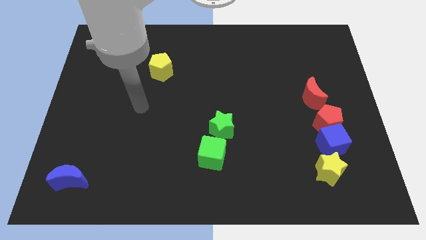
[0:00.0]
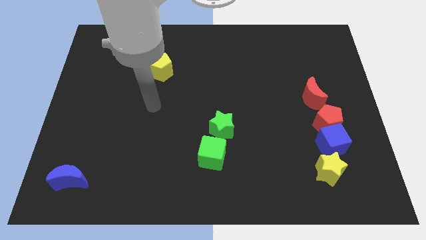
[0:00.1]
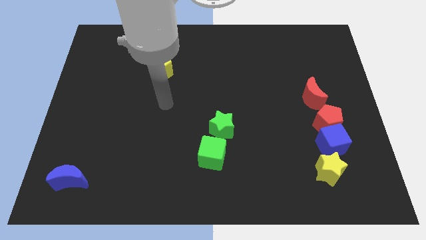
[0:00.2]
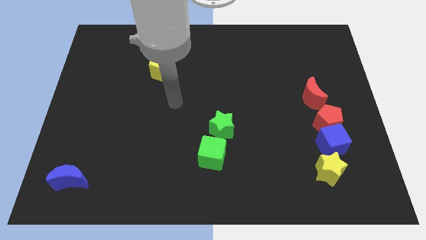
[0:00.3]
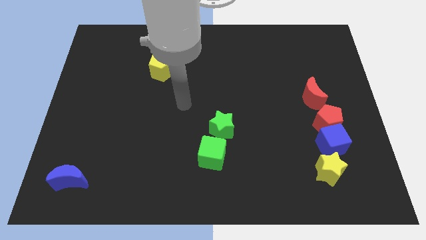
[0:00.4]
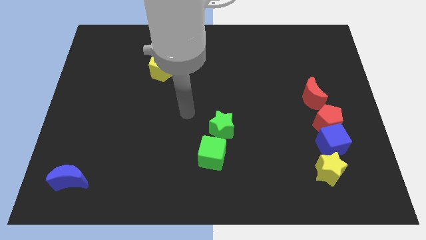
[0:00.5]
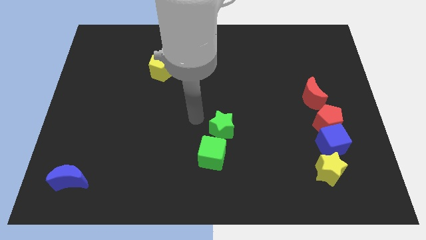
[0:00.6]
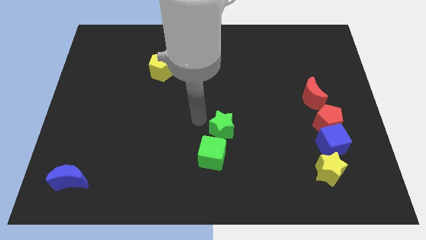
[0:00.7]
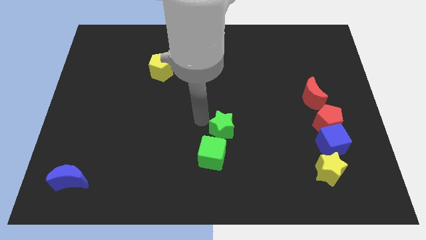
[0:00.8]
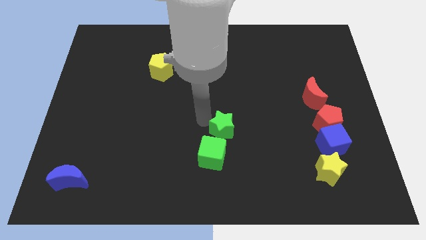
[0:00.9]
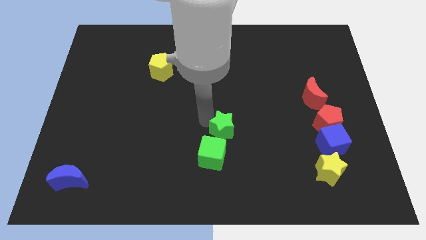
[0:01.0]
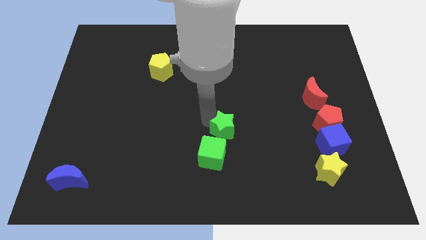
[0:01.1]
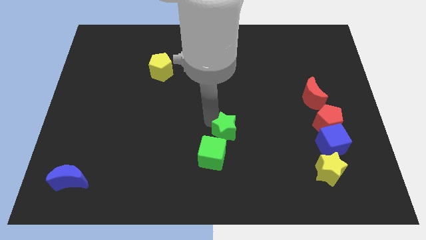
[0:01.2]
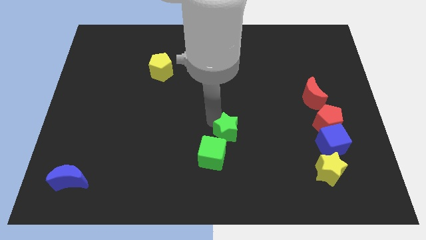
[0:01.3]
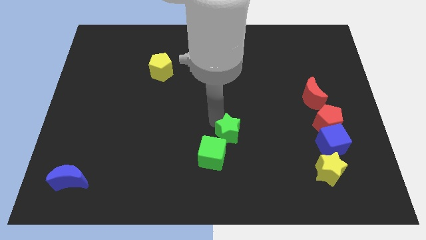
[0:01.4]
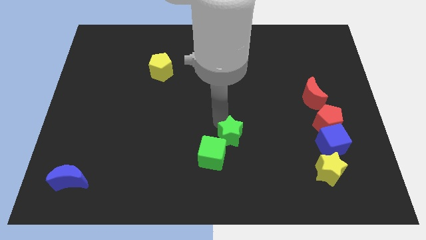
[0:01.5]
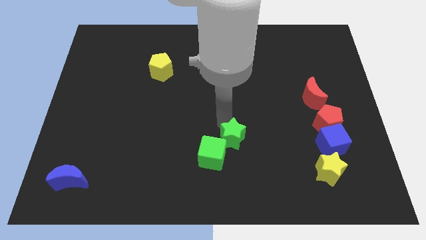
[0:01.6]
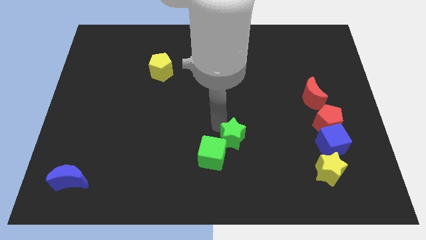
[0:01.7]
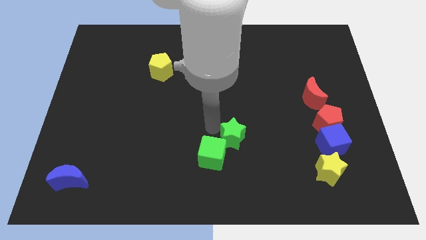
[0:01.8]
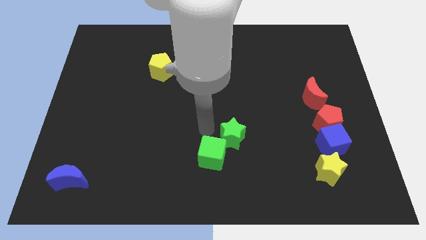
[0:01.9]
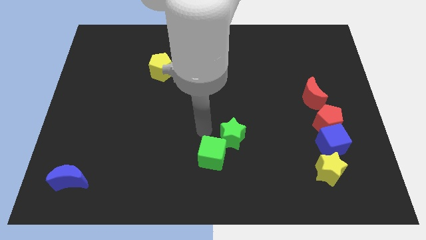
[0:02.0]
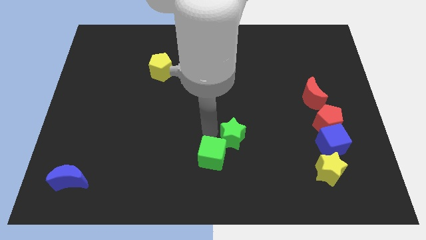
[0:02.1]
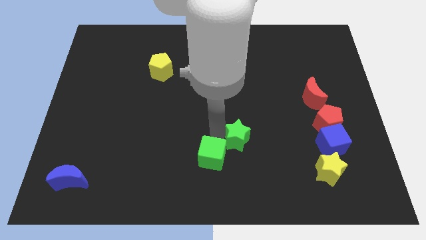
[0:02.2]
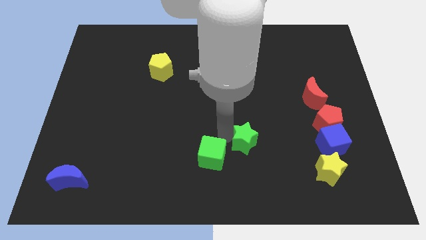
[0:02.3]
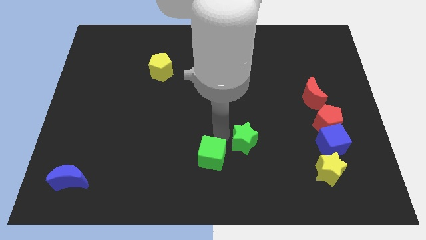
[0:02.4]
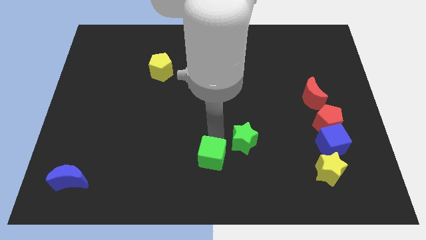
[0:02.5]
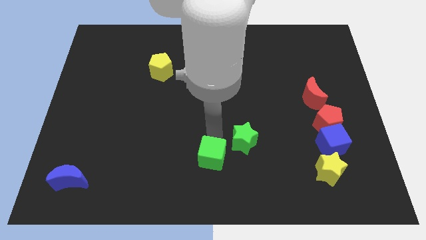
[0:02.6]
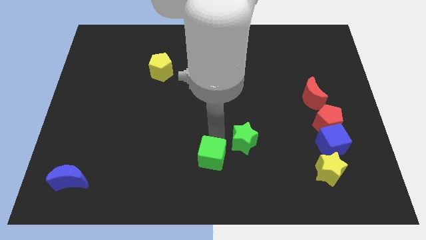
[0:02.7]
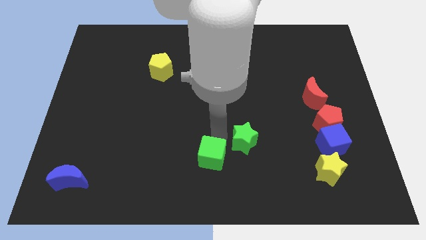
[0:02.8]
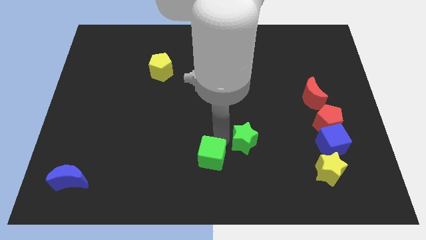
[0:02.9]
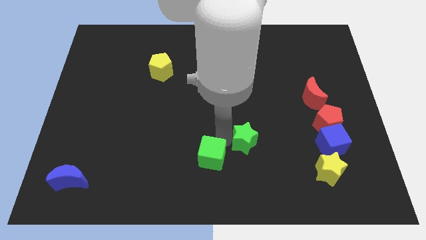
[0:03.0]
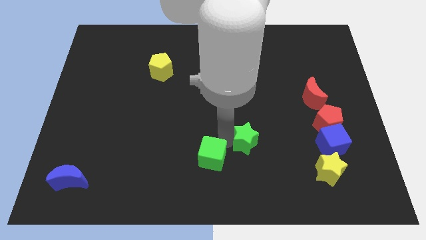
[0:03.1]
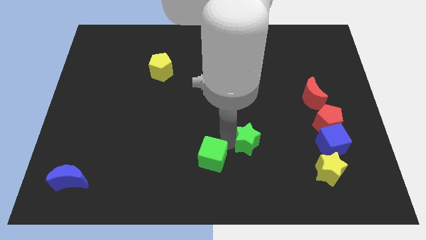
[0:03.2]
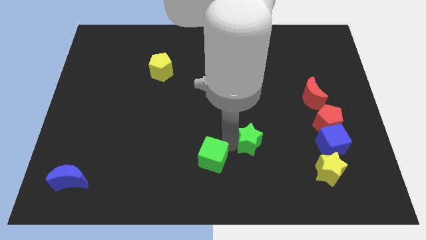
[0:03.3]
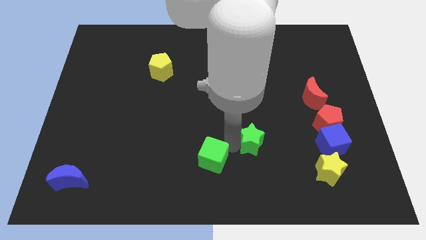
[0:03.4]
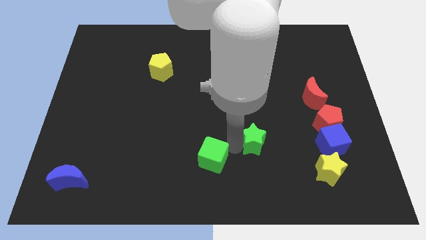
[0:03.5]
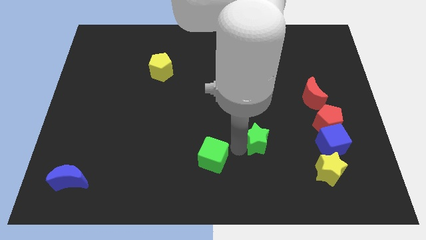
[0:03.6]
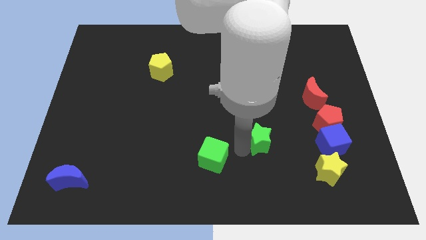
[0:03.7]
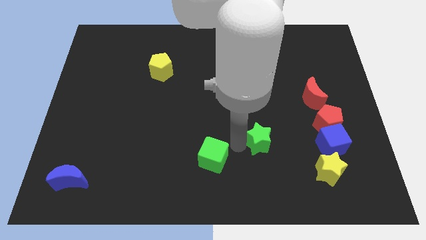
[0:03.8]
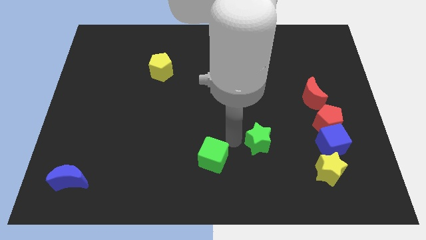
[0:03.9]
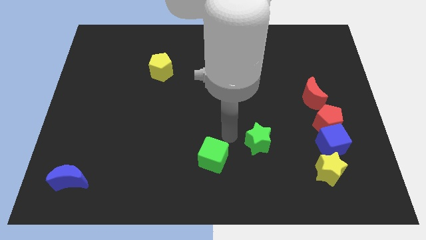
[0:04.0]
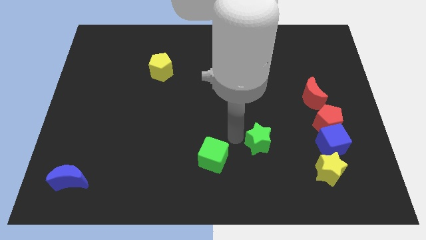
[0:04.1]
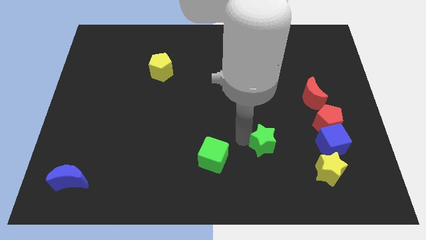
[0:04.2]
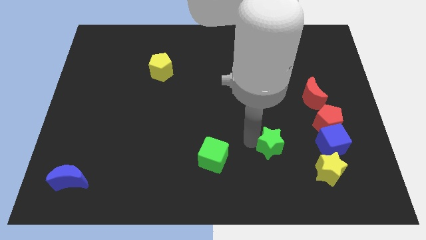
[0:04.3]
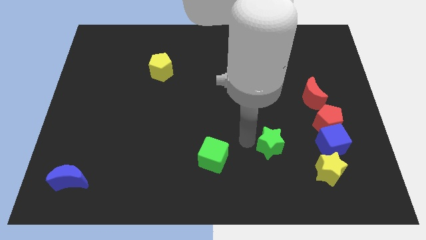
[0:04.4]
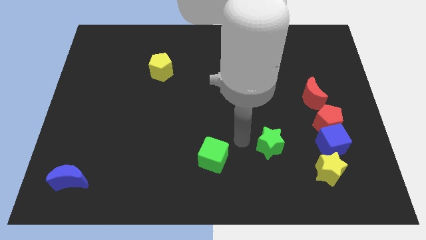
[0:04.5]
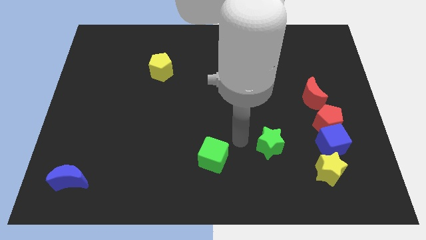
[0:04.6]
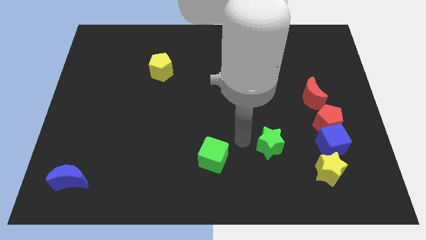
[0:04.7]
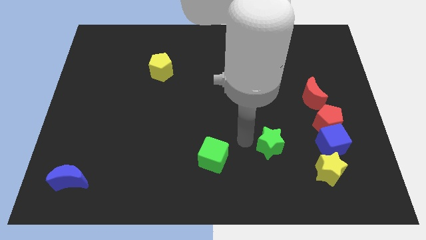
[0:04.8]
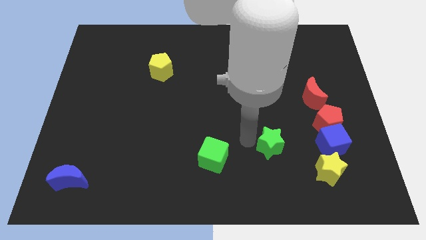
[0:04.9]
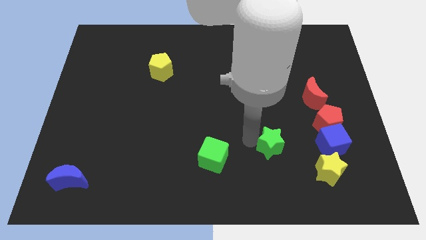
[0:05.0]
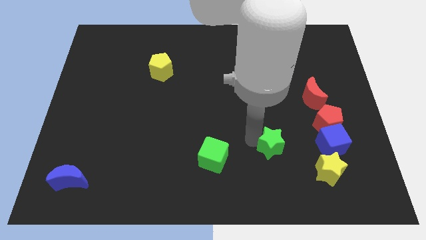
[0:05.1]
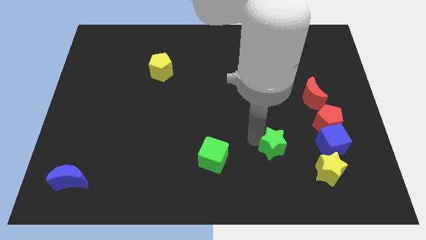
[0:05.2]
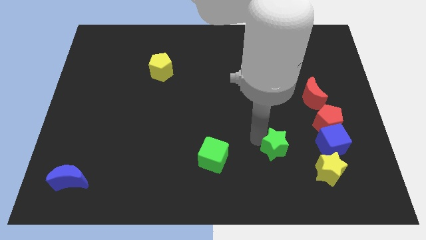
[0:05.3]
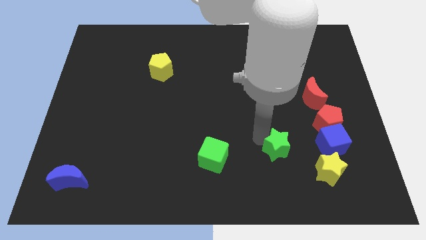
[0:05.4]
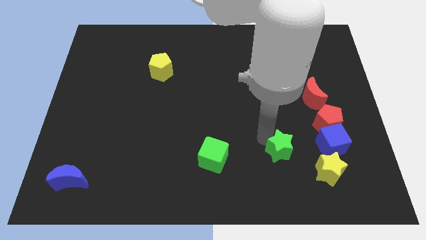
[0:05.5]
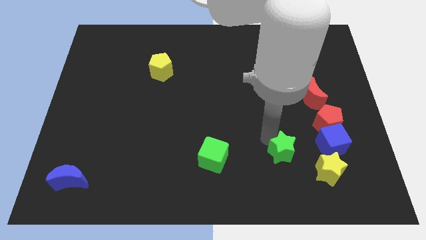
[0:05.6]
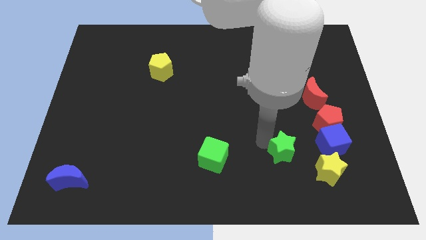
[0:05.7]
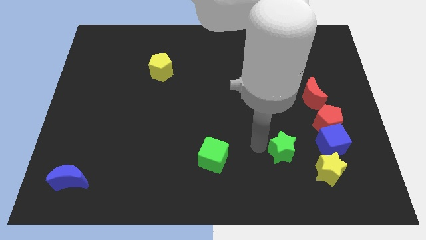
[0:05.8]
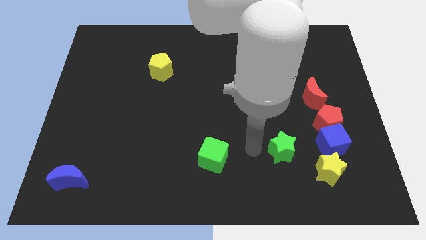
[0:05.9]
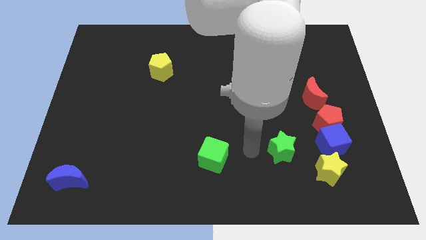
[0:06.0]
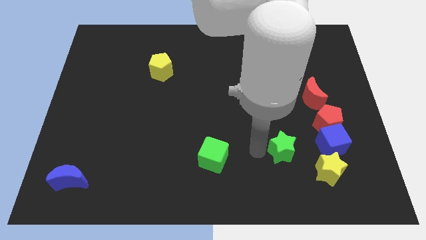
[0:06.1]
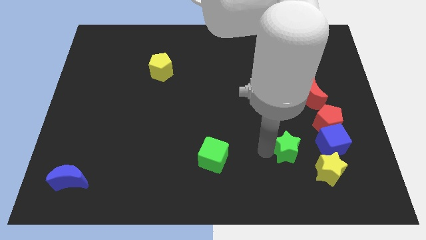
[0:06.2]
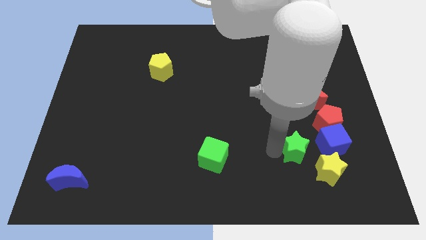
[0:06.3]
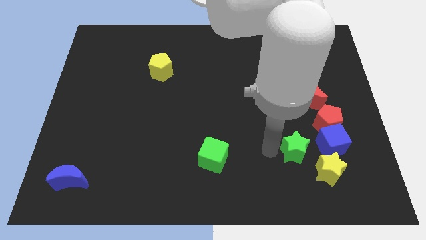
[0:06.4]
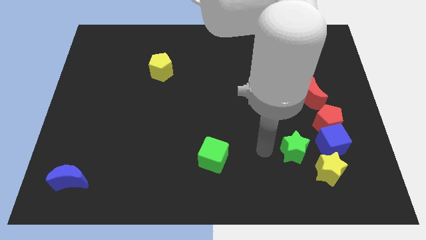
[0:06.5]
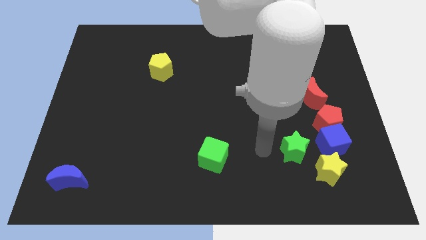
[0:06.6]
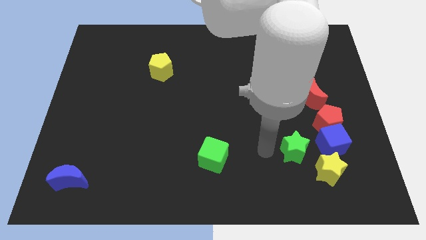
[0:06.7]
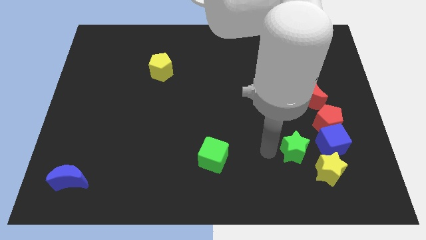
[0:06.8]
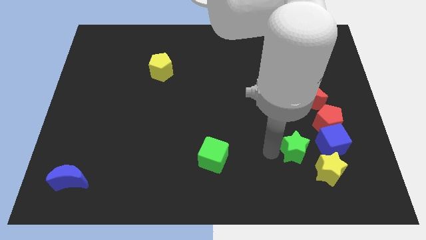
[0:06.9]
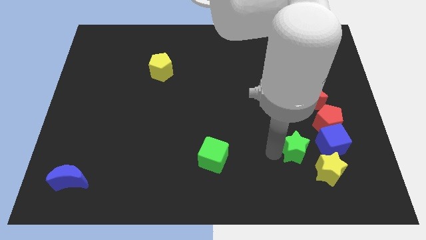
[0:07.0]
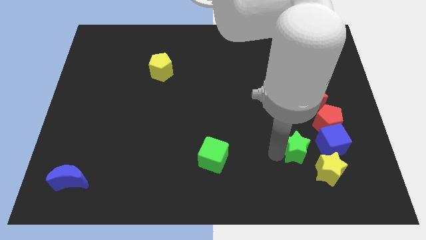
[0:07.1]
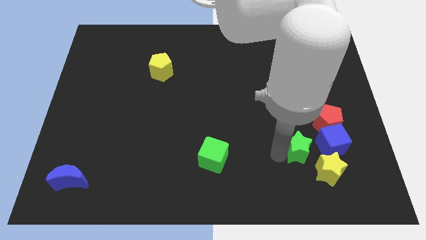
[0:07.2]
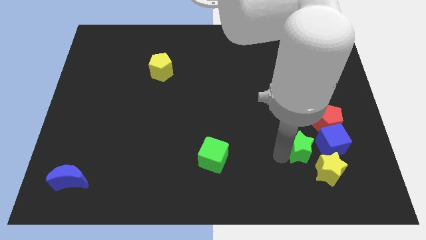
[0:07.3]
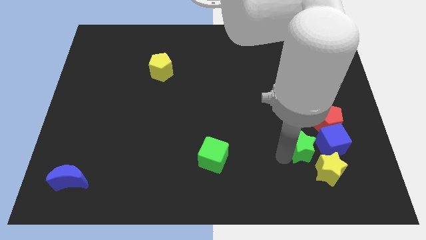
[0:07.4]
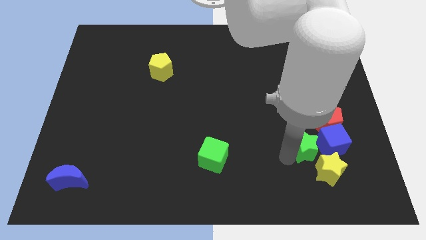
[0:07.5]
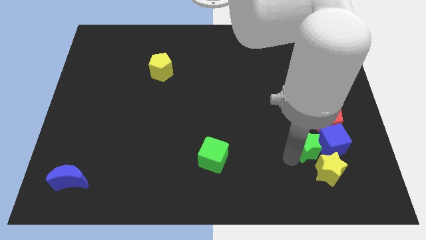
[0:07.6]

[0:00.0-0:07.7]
move the green star towards the blue cube
